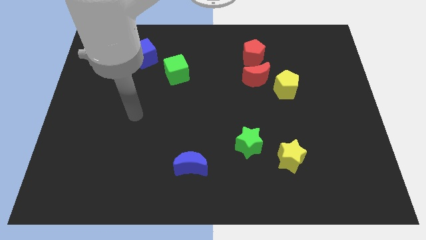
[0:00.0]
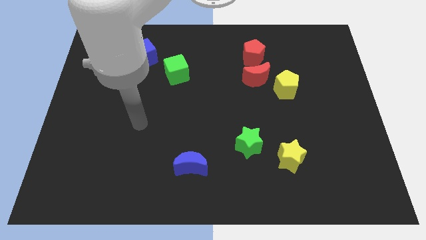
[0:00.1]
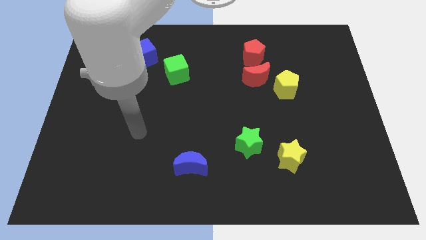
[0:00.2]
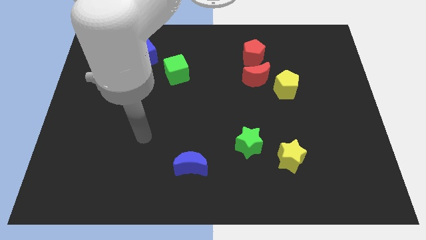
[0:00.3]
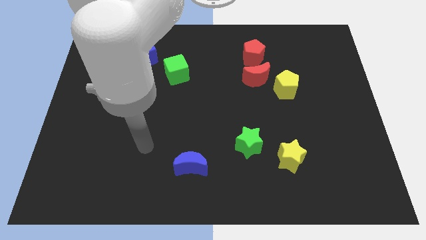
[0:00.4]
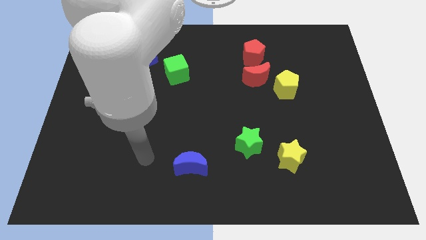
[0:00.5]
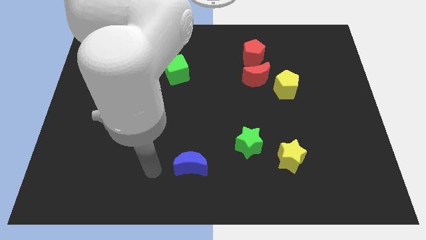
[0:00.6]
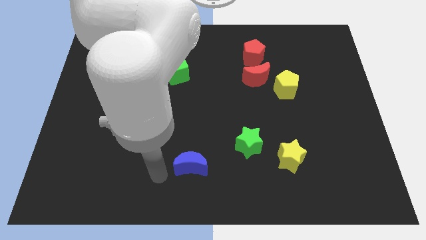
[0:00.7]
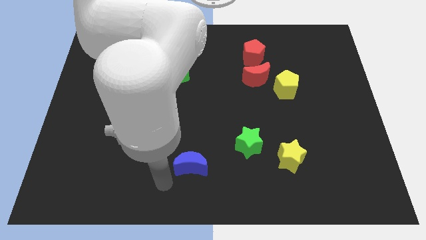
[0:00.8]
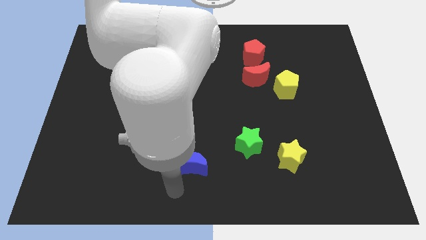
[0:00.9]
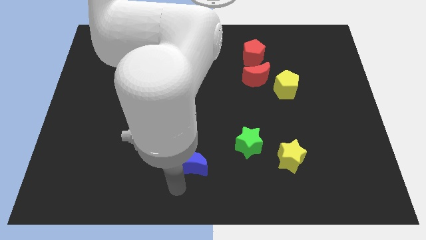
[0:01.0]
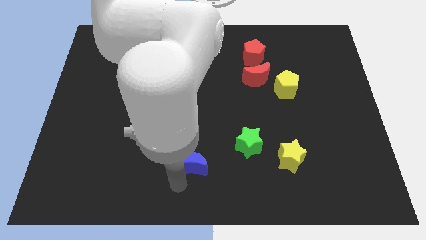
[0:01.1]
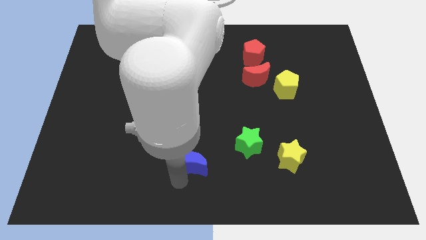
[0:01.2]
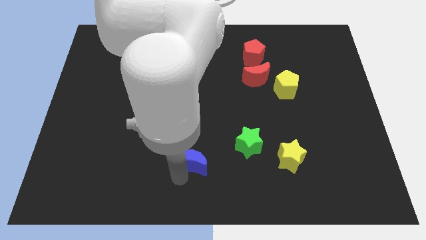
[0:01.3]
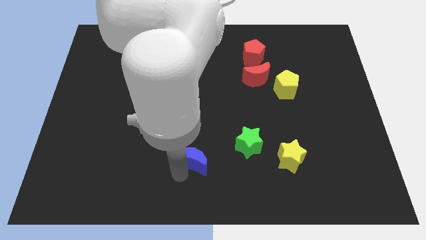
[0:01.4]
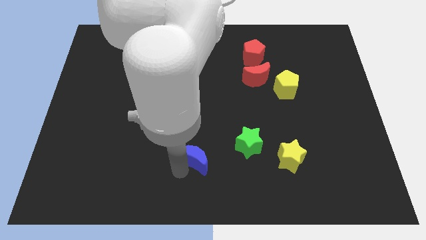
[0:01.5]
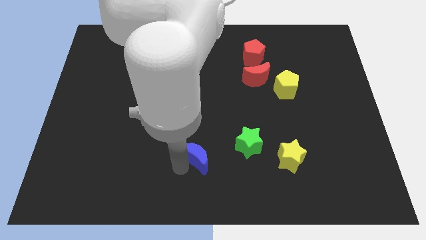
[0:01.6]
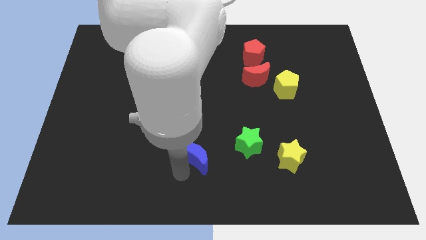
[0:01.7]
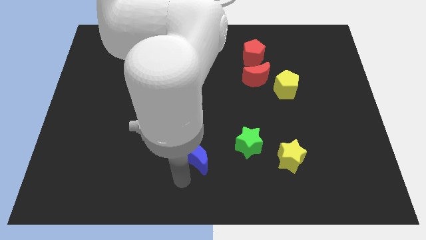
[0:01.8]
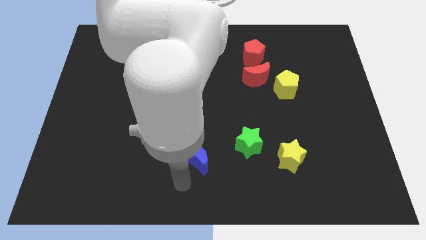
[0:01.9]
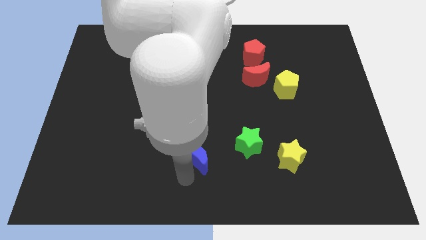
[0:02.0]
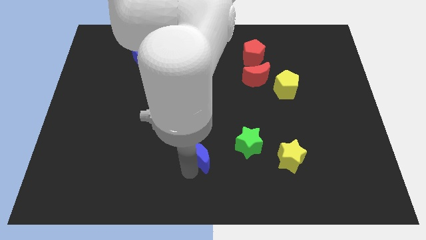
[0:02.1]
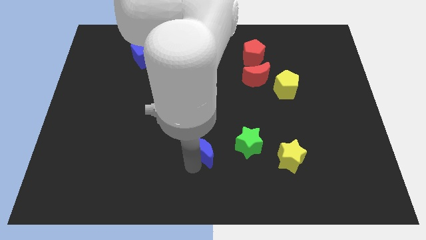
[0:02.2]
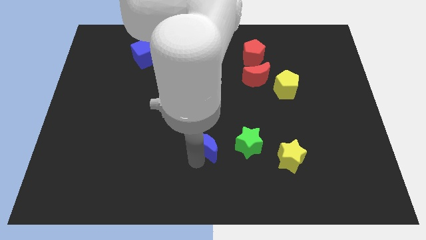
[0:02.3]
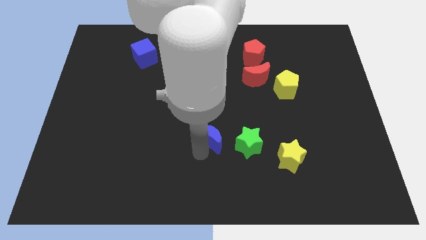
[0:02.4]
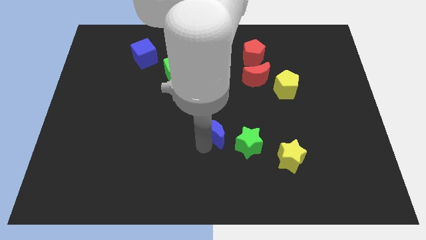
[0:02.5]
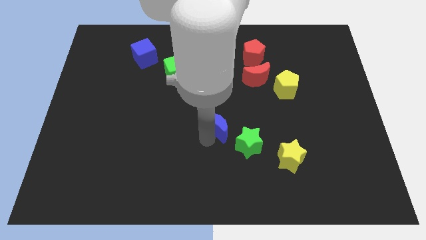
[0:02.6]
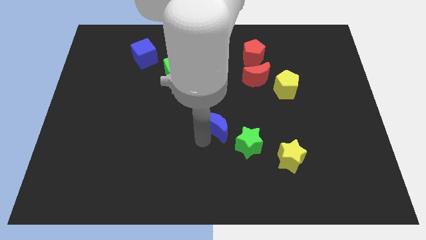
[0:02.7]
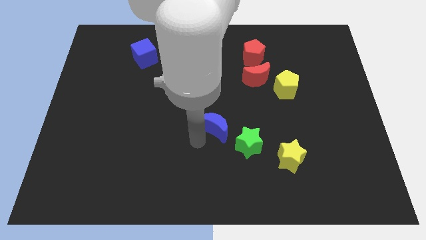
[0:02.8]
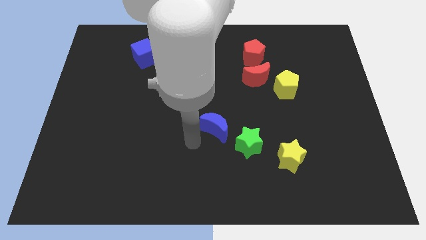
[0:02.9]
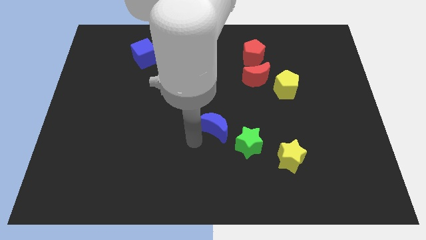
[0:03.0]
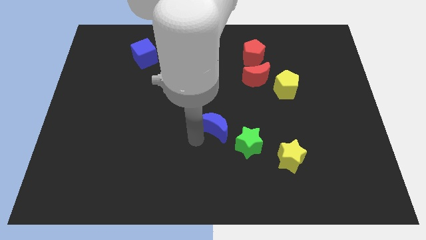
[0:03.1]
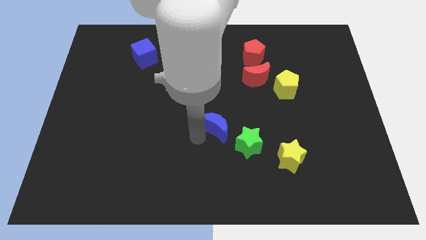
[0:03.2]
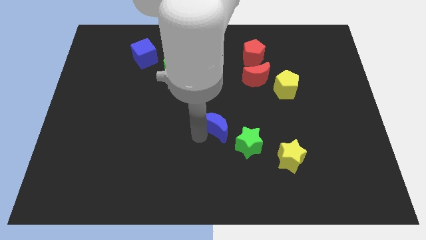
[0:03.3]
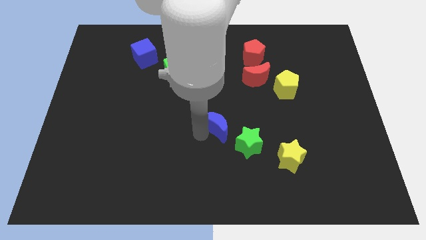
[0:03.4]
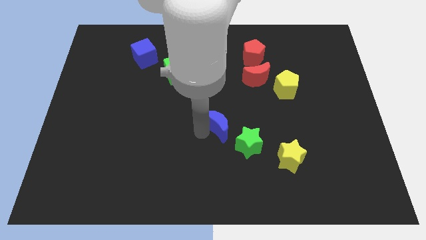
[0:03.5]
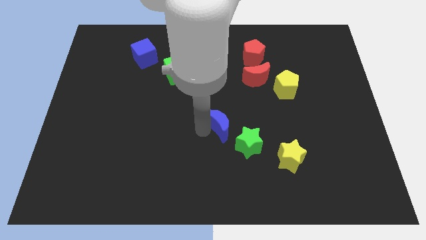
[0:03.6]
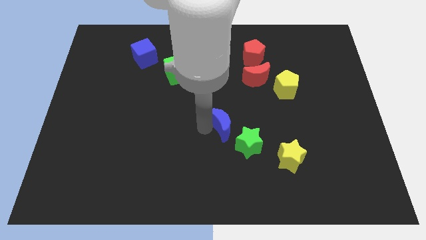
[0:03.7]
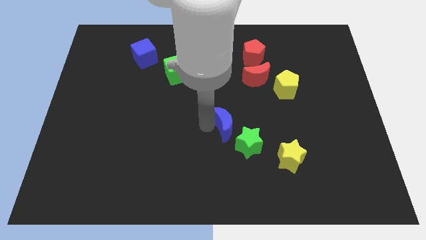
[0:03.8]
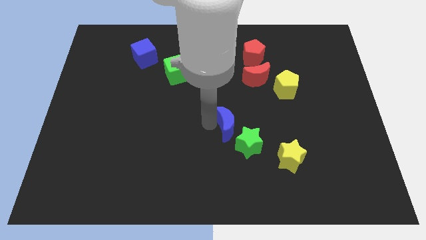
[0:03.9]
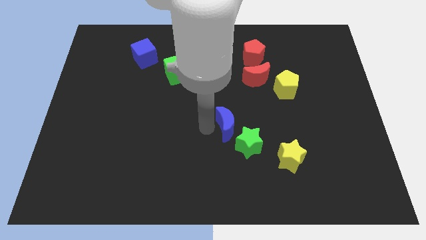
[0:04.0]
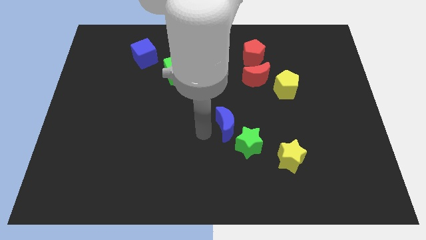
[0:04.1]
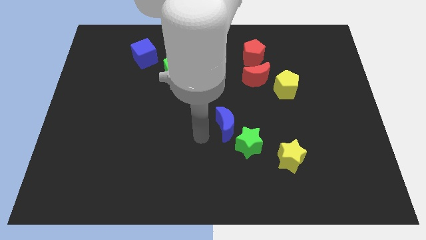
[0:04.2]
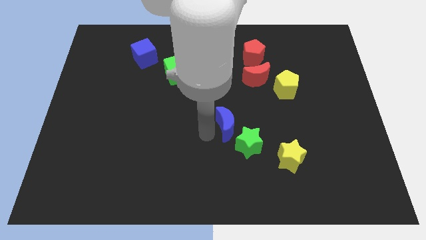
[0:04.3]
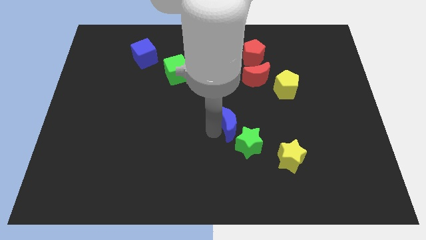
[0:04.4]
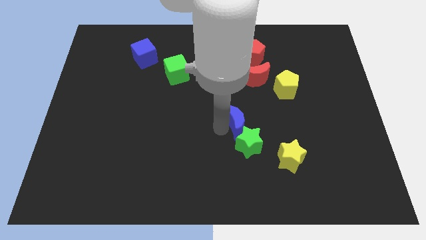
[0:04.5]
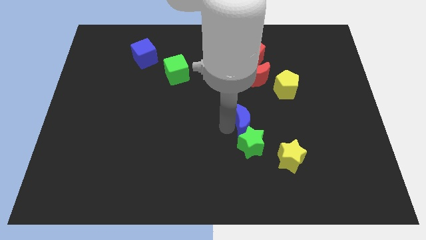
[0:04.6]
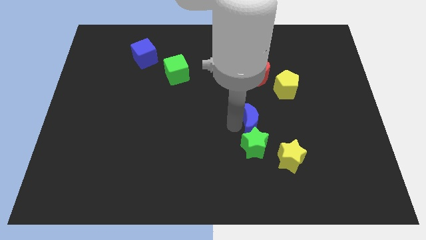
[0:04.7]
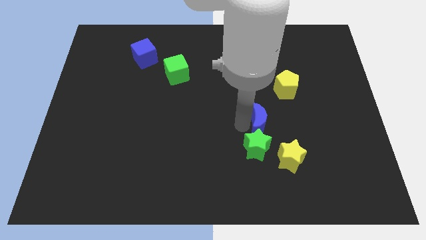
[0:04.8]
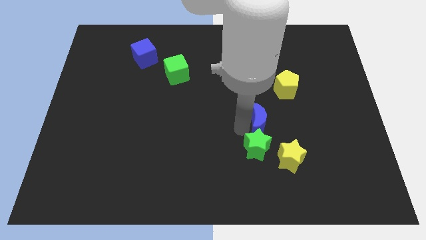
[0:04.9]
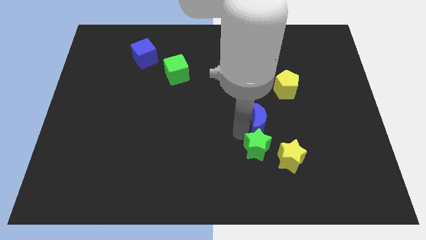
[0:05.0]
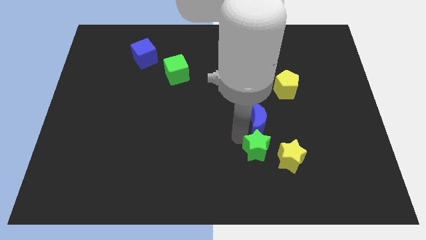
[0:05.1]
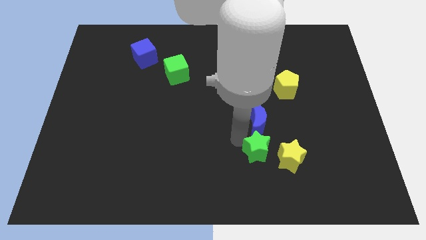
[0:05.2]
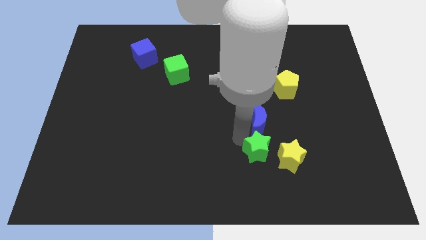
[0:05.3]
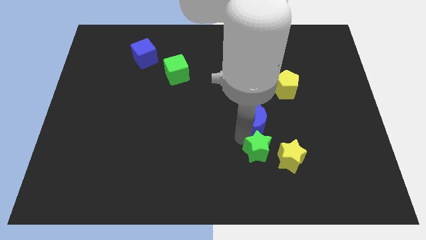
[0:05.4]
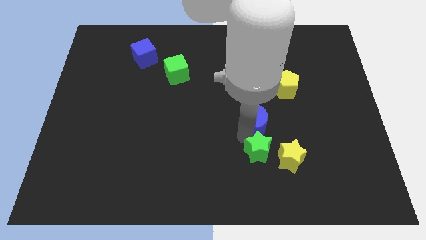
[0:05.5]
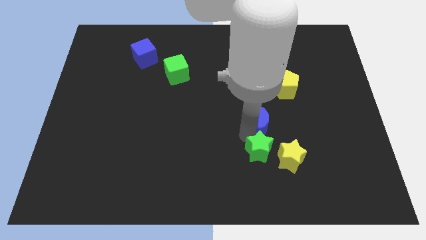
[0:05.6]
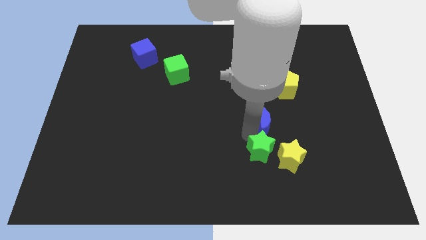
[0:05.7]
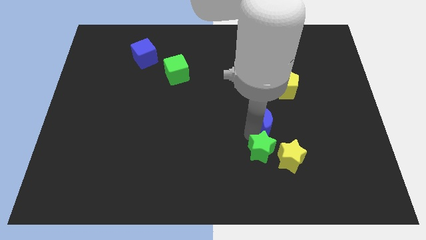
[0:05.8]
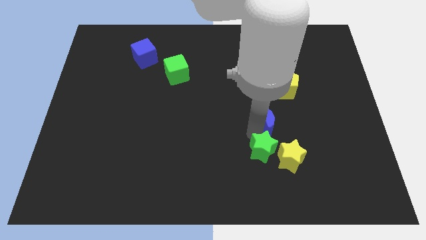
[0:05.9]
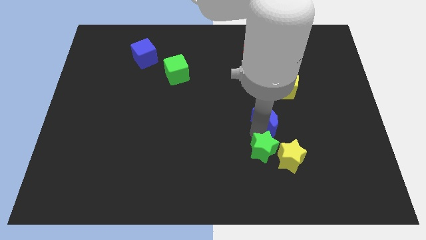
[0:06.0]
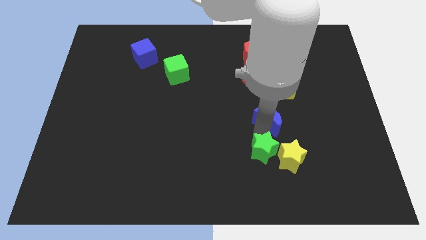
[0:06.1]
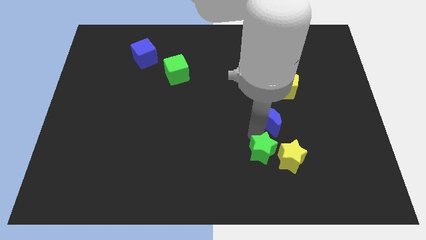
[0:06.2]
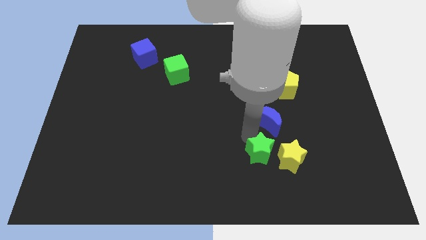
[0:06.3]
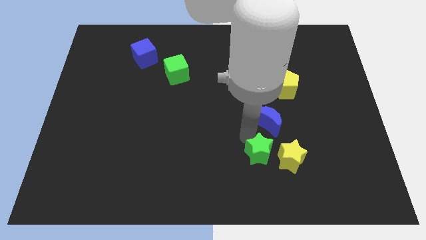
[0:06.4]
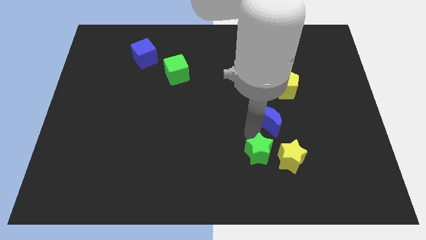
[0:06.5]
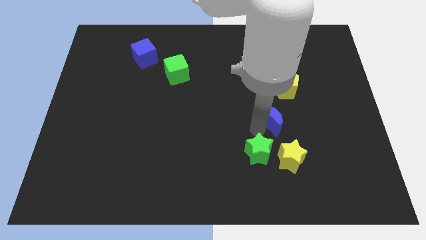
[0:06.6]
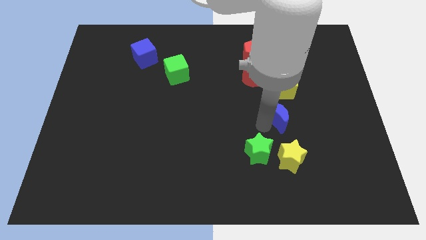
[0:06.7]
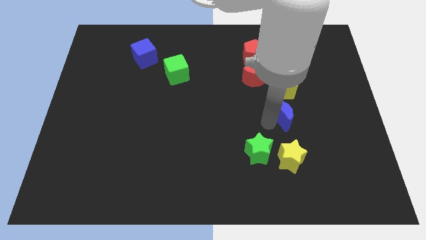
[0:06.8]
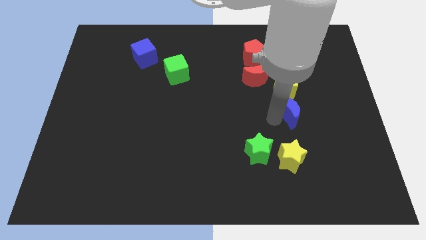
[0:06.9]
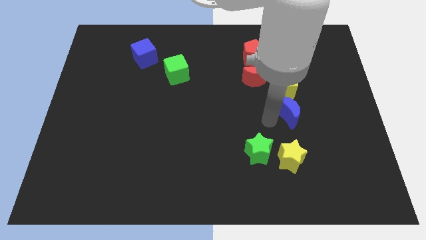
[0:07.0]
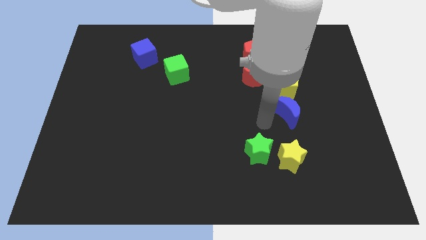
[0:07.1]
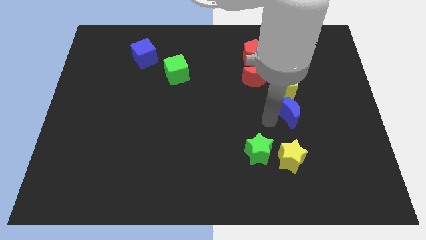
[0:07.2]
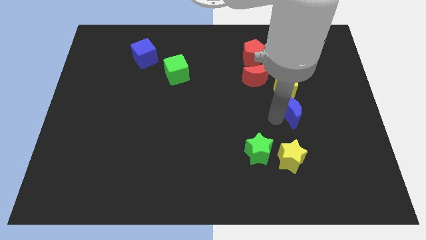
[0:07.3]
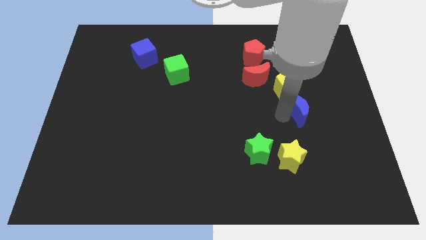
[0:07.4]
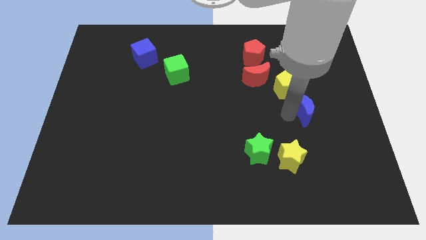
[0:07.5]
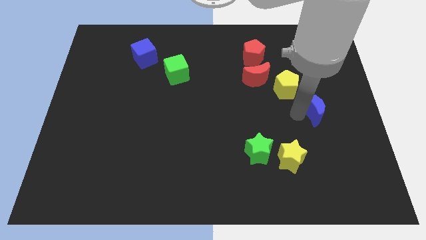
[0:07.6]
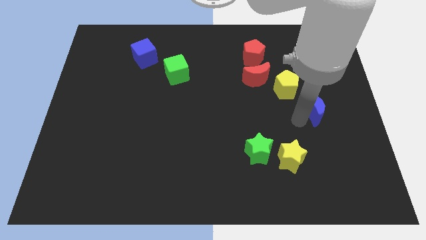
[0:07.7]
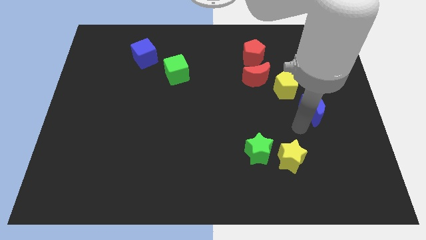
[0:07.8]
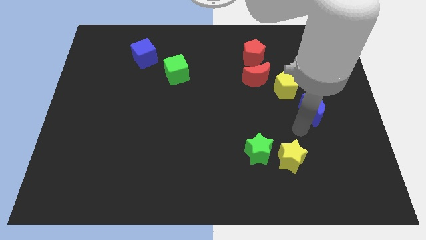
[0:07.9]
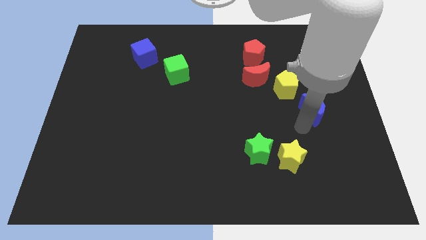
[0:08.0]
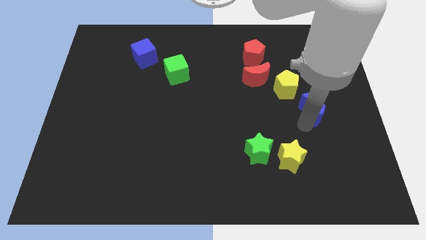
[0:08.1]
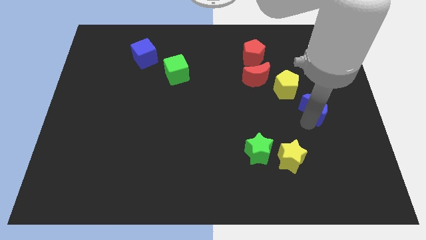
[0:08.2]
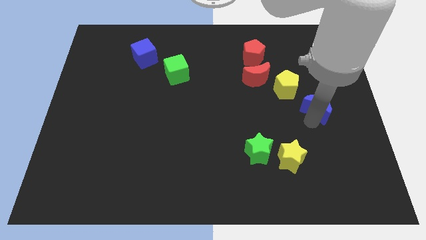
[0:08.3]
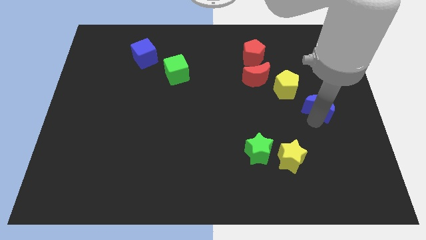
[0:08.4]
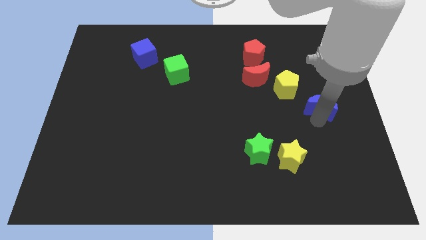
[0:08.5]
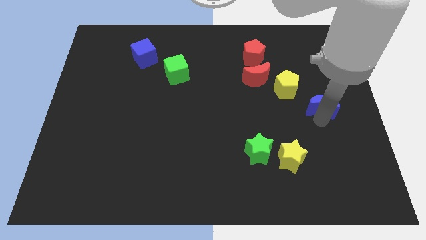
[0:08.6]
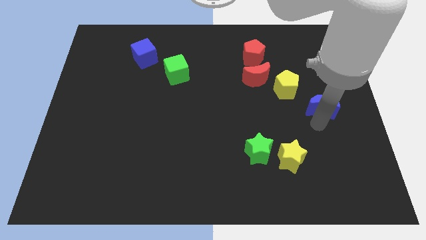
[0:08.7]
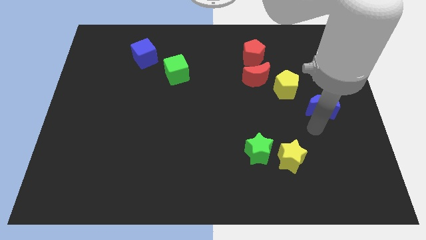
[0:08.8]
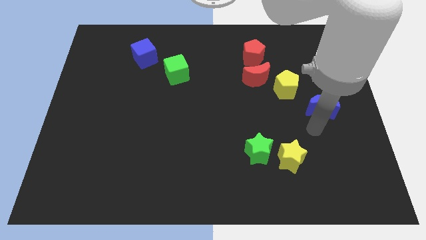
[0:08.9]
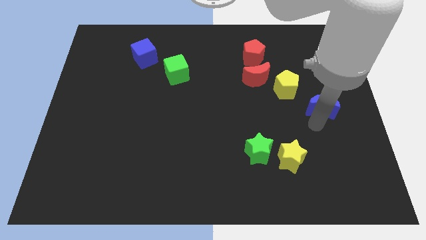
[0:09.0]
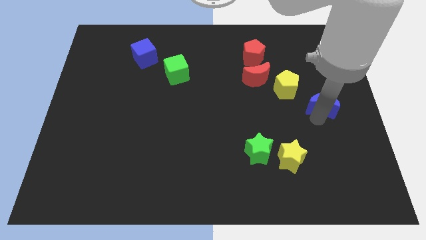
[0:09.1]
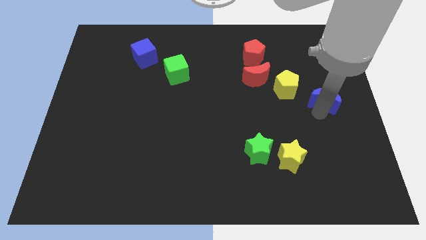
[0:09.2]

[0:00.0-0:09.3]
push the blue moon right of the yellow pentagon
